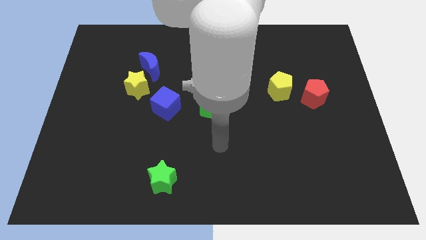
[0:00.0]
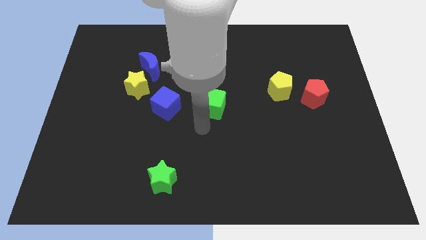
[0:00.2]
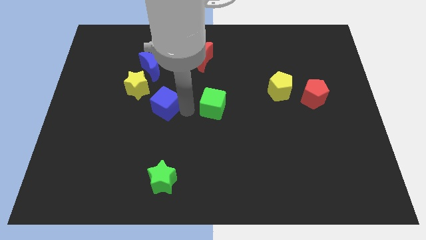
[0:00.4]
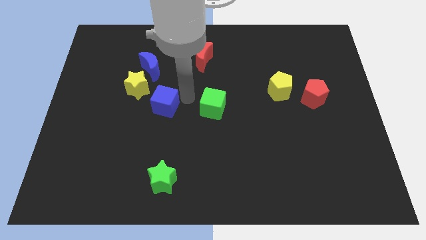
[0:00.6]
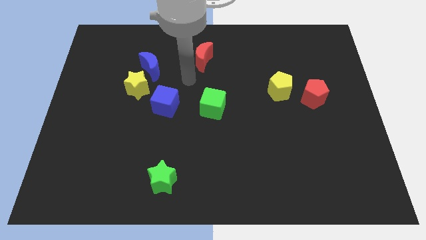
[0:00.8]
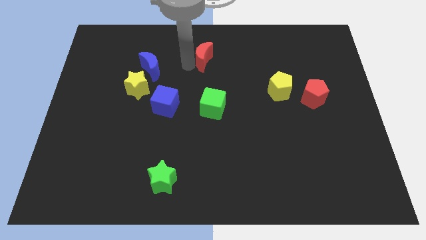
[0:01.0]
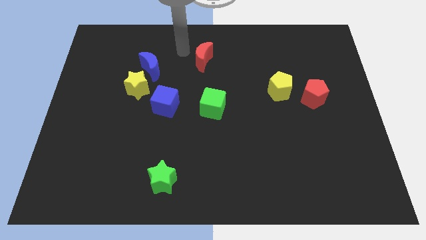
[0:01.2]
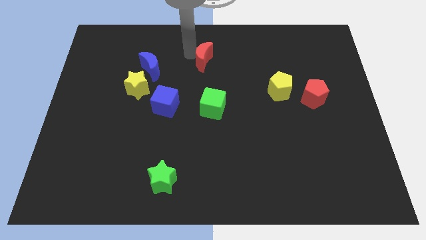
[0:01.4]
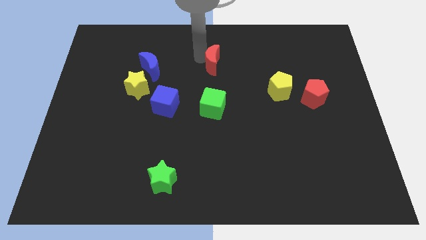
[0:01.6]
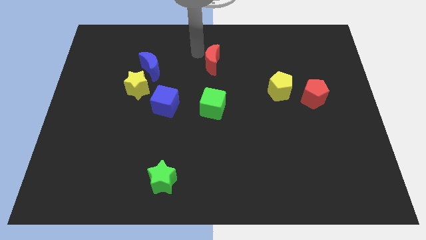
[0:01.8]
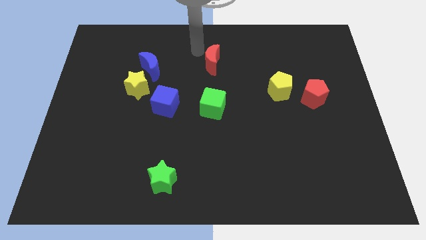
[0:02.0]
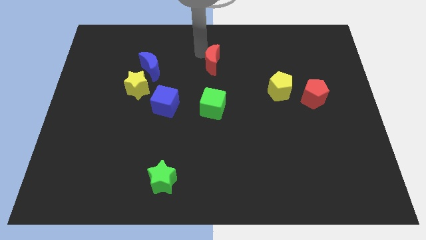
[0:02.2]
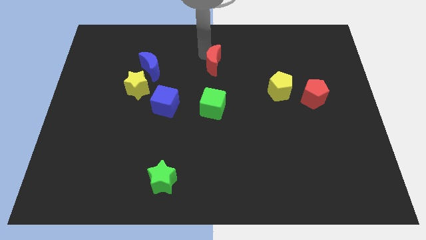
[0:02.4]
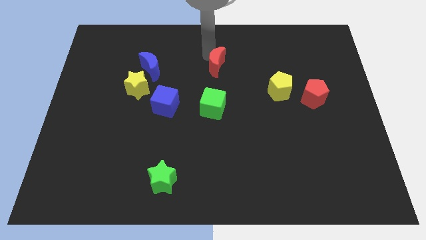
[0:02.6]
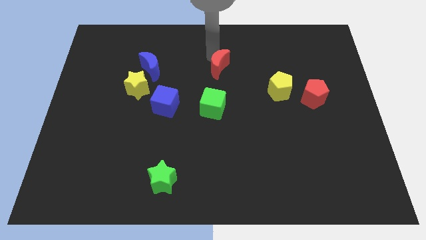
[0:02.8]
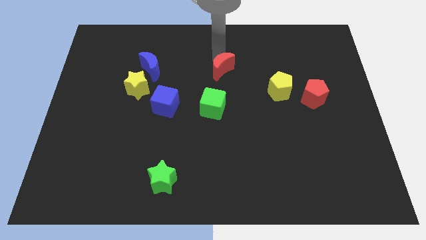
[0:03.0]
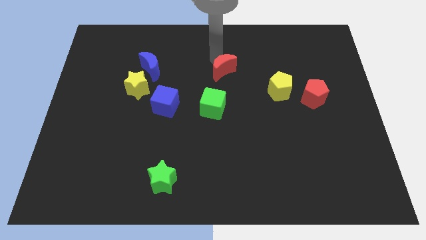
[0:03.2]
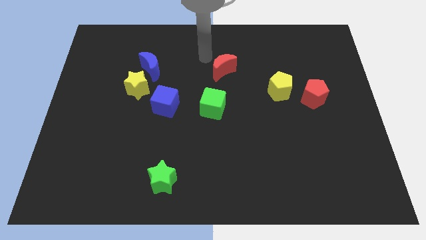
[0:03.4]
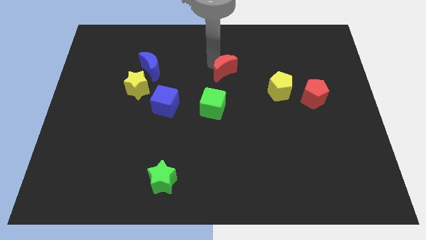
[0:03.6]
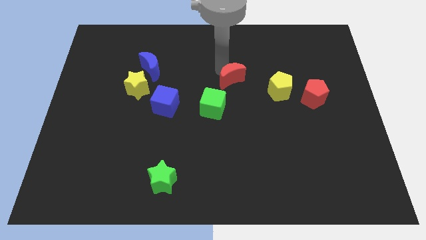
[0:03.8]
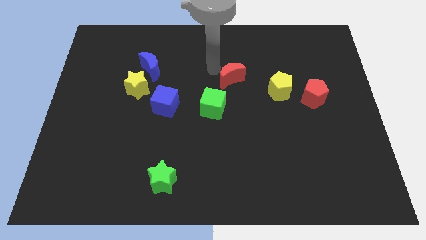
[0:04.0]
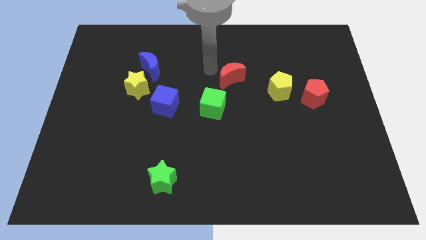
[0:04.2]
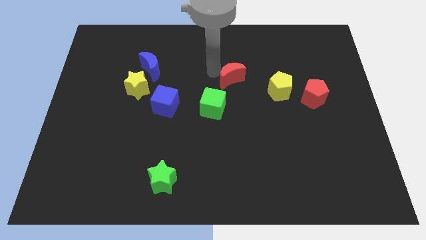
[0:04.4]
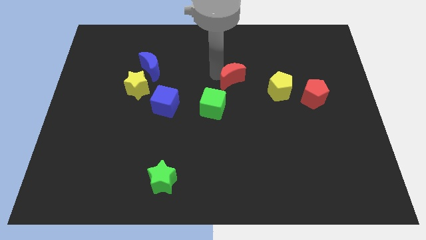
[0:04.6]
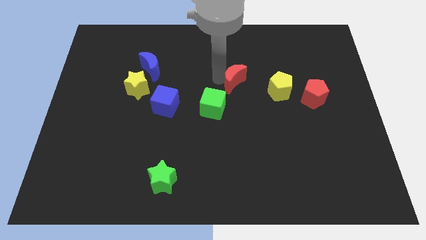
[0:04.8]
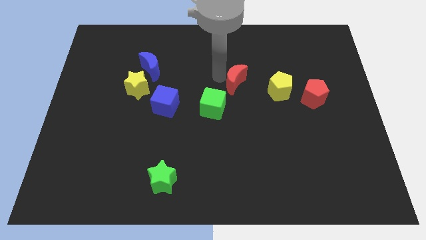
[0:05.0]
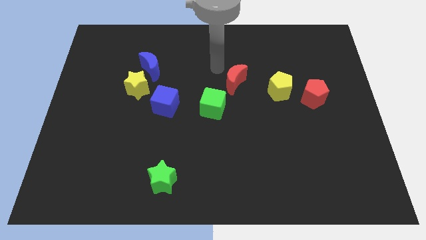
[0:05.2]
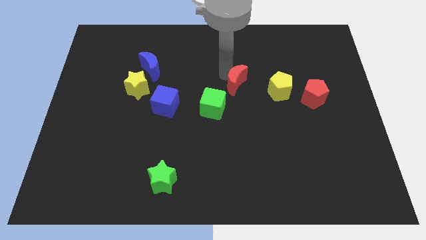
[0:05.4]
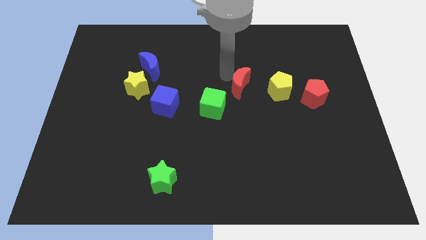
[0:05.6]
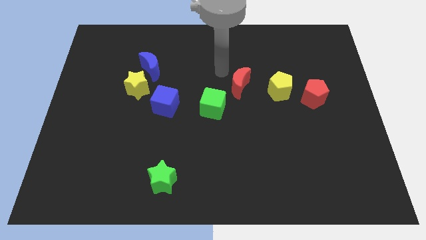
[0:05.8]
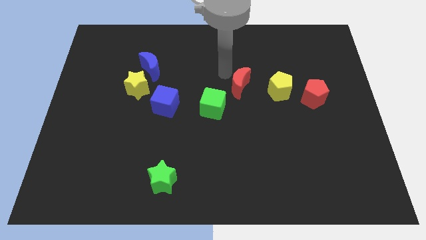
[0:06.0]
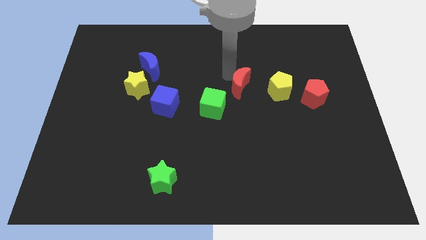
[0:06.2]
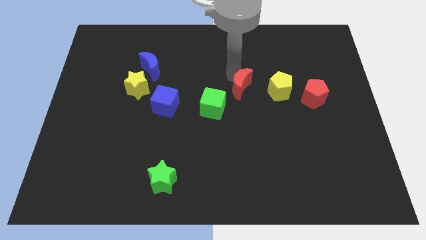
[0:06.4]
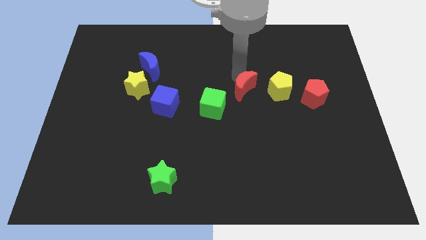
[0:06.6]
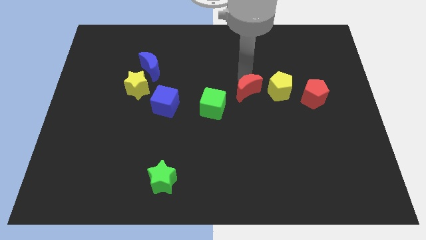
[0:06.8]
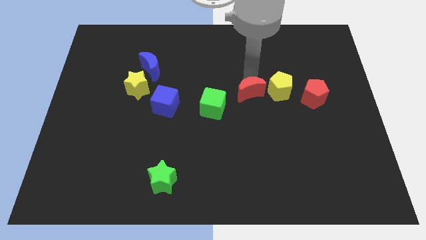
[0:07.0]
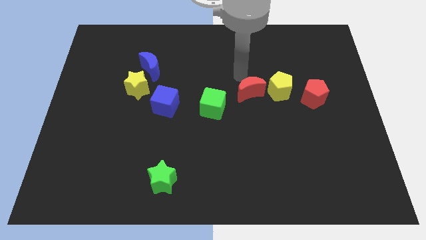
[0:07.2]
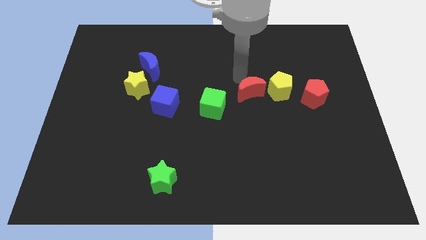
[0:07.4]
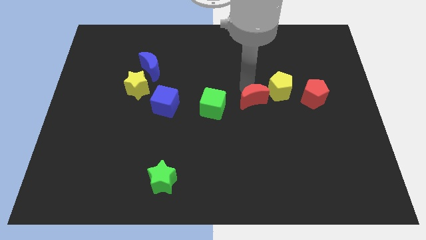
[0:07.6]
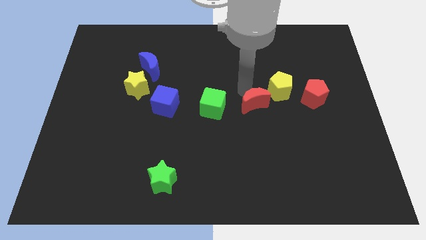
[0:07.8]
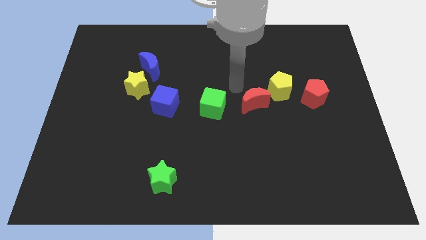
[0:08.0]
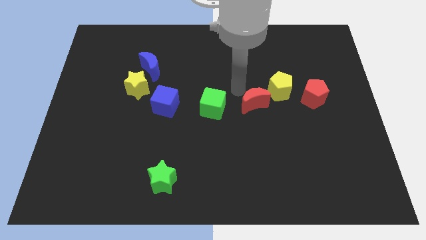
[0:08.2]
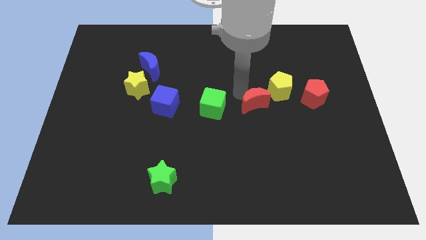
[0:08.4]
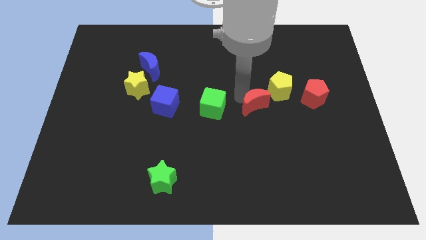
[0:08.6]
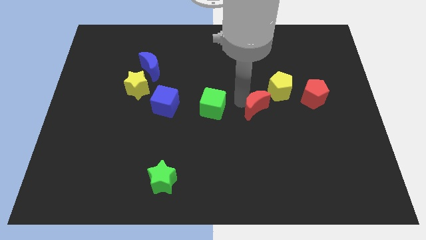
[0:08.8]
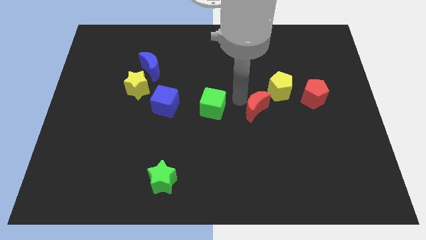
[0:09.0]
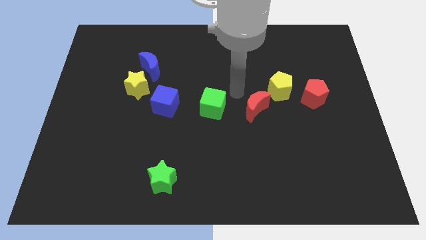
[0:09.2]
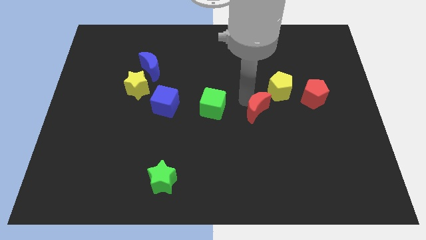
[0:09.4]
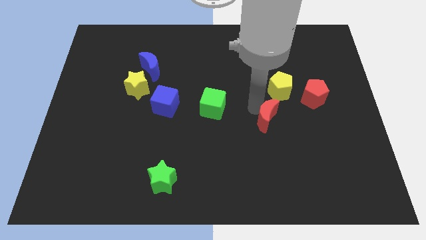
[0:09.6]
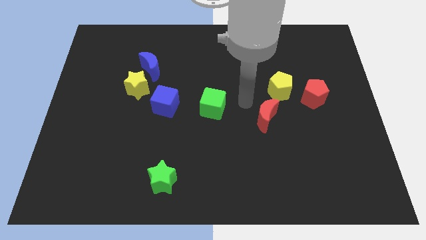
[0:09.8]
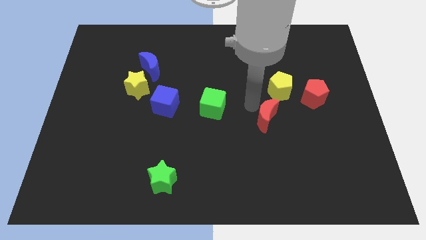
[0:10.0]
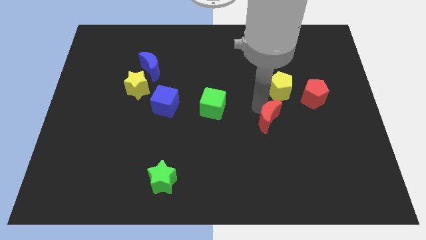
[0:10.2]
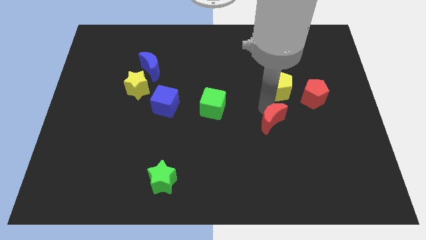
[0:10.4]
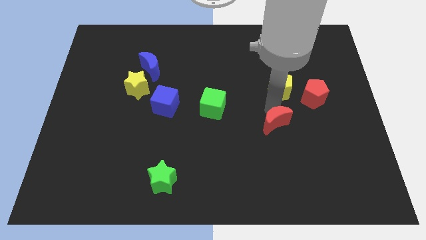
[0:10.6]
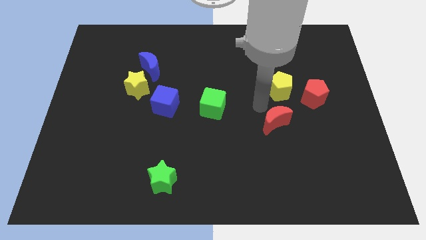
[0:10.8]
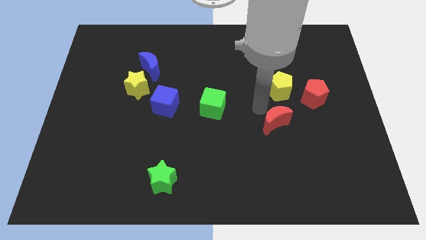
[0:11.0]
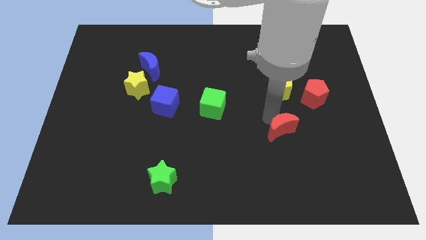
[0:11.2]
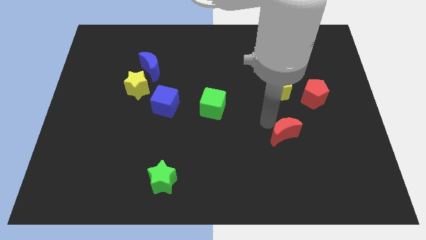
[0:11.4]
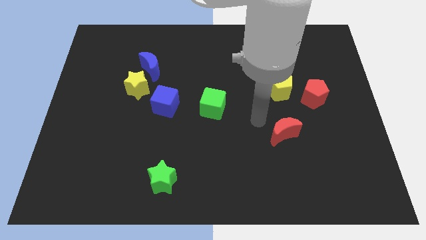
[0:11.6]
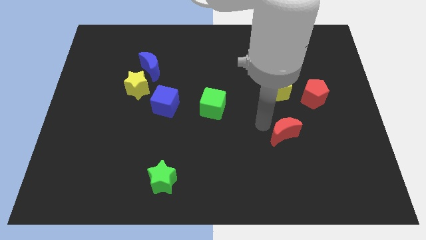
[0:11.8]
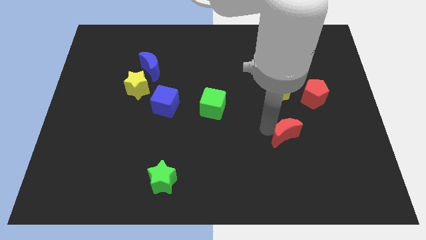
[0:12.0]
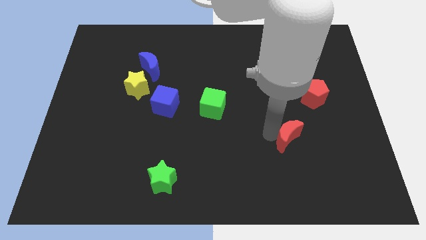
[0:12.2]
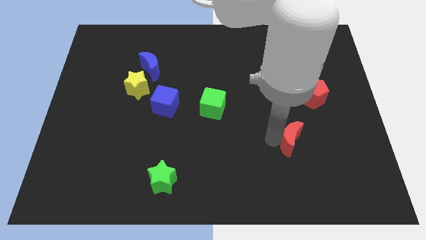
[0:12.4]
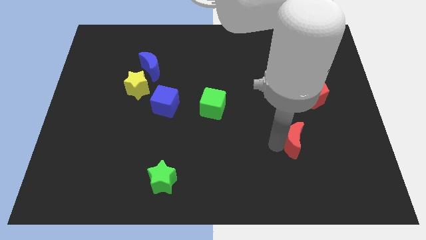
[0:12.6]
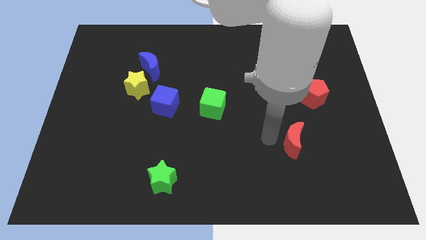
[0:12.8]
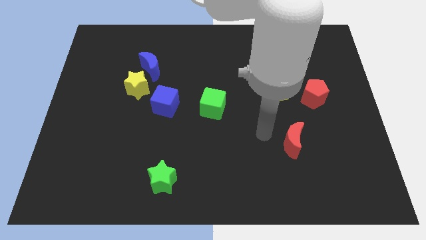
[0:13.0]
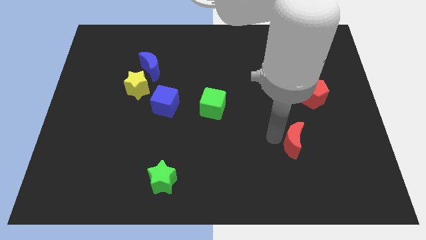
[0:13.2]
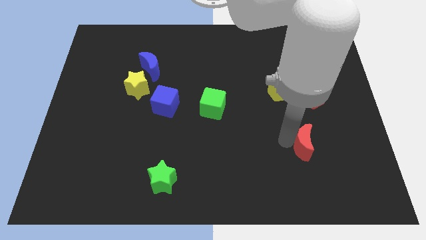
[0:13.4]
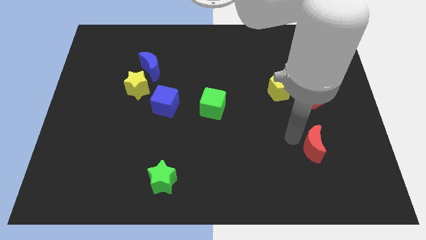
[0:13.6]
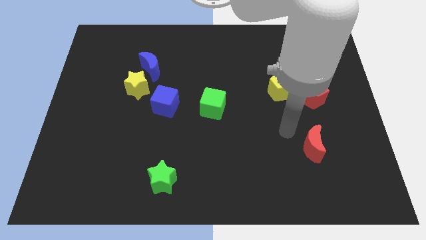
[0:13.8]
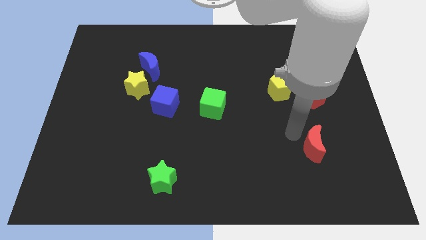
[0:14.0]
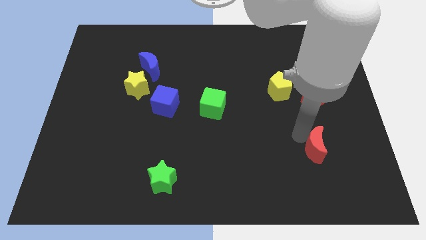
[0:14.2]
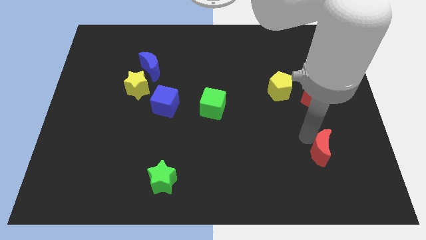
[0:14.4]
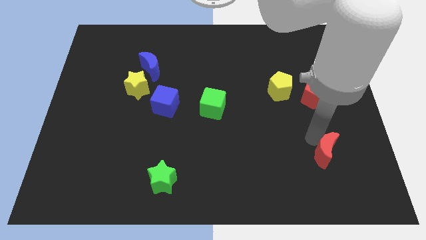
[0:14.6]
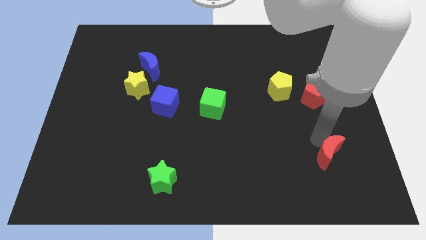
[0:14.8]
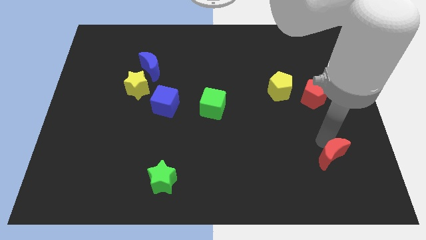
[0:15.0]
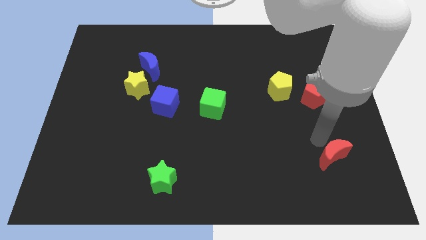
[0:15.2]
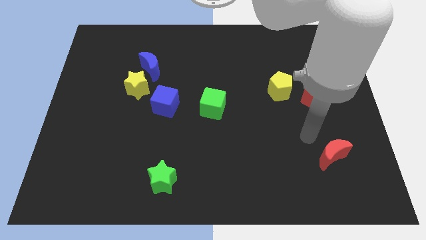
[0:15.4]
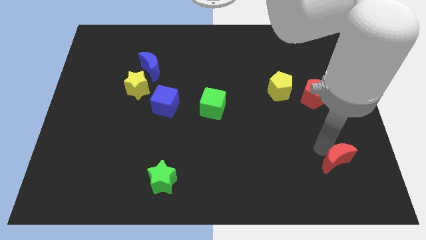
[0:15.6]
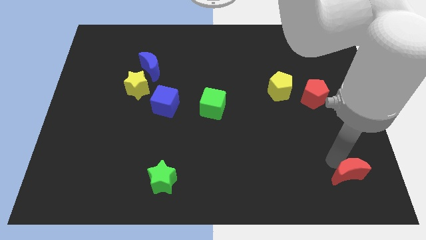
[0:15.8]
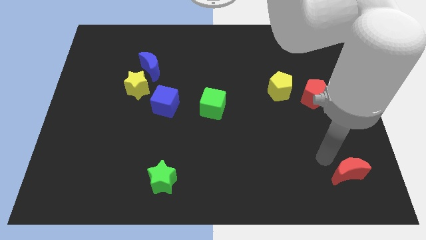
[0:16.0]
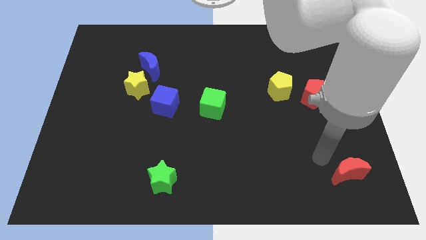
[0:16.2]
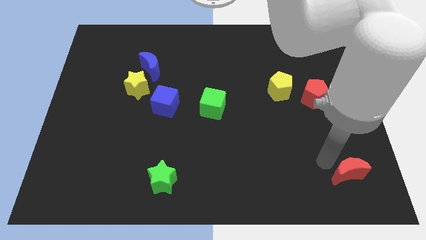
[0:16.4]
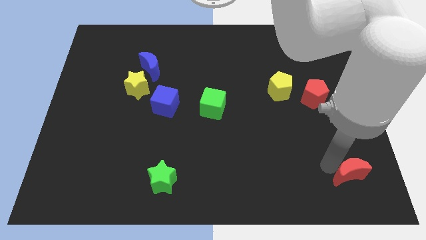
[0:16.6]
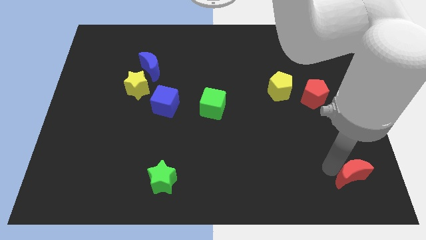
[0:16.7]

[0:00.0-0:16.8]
push the red moon to the bottom right
